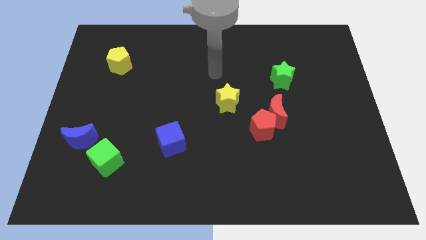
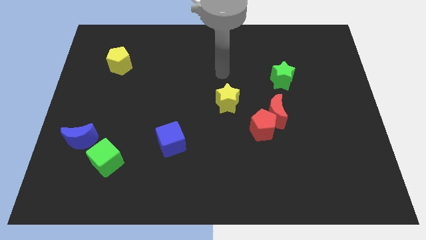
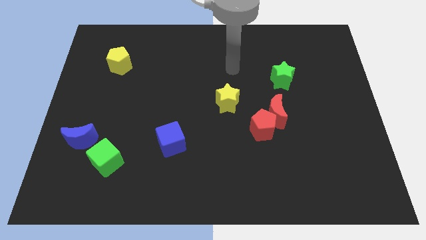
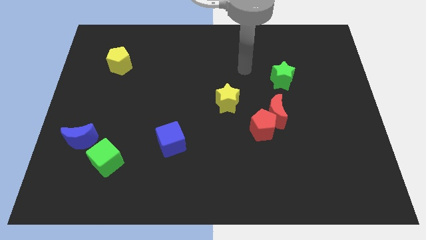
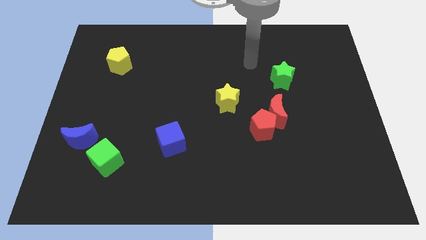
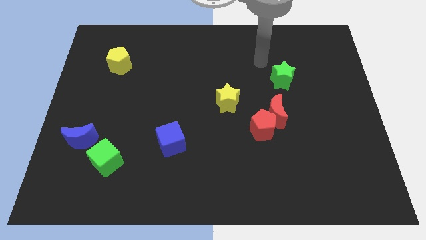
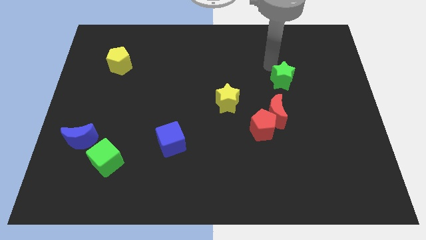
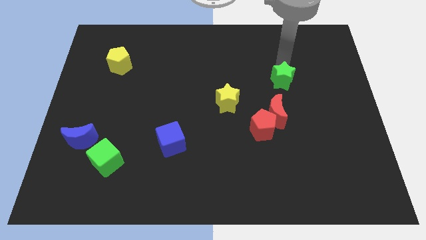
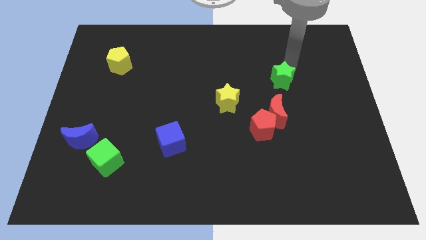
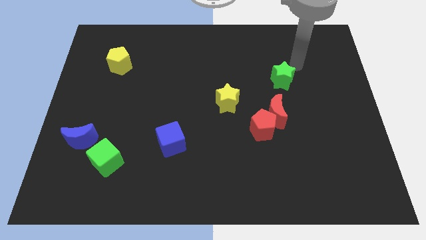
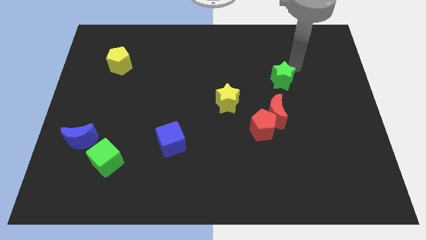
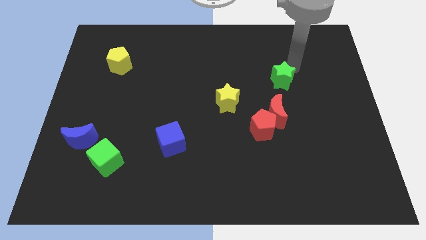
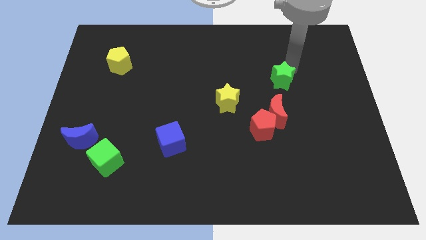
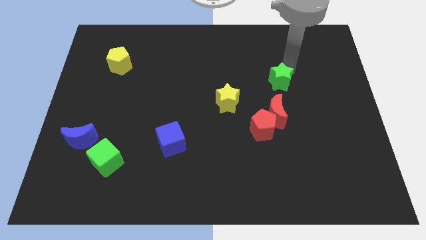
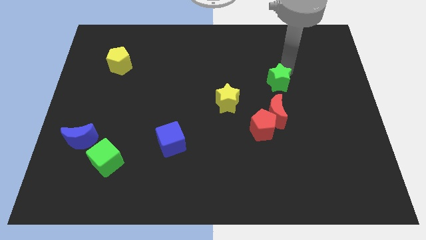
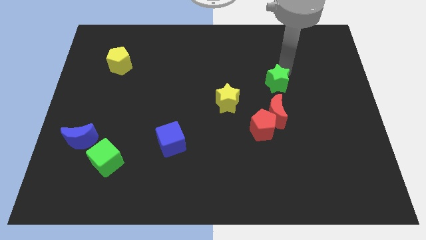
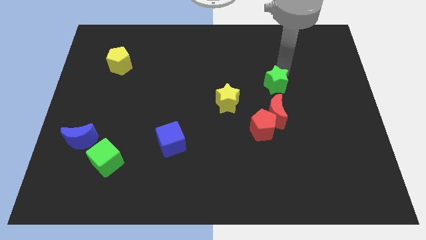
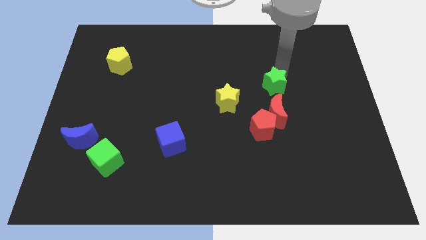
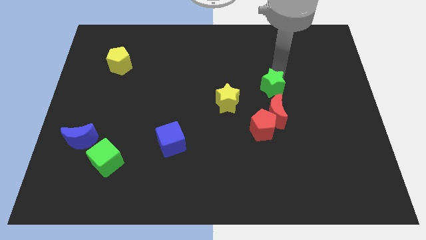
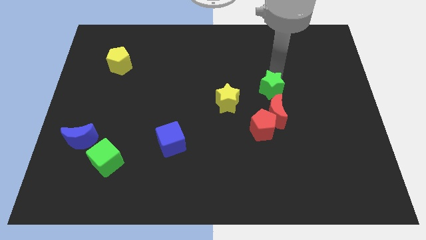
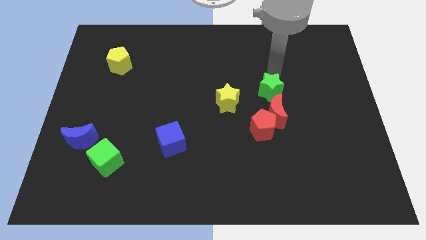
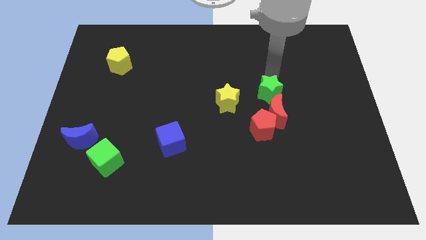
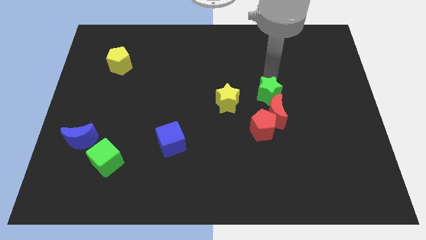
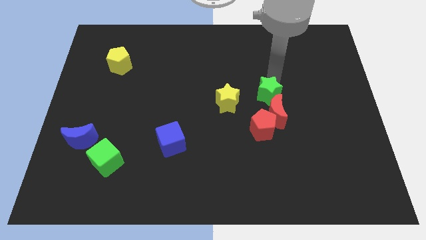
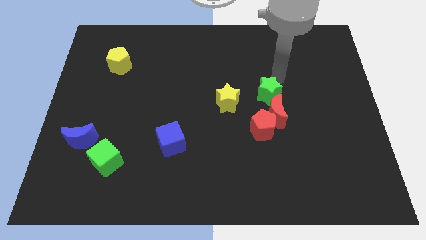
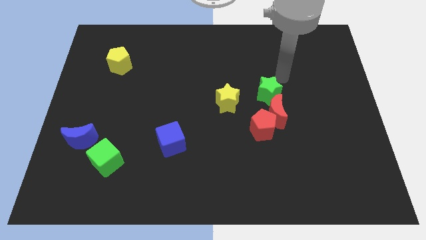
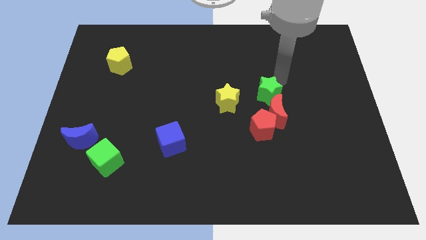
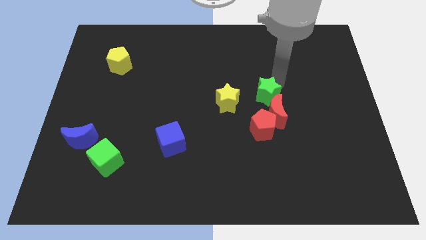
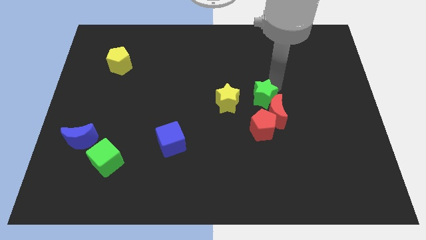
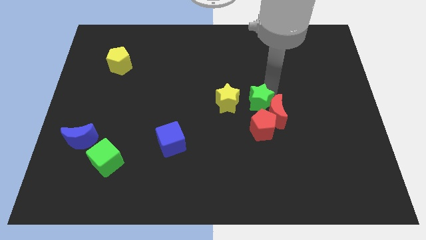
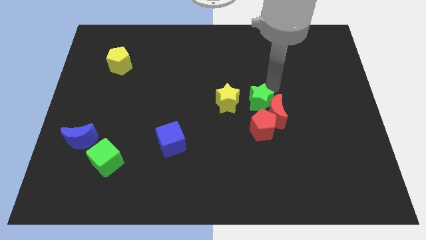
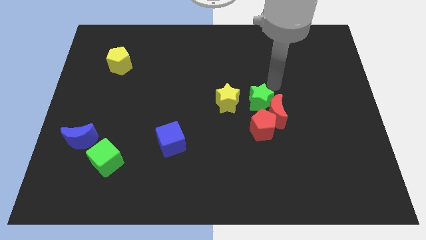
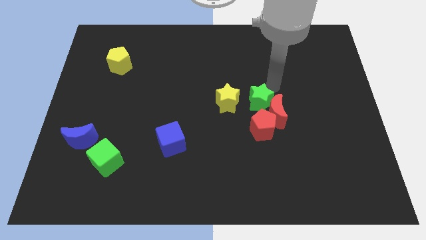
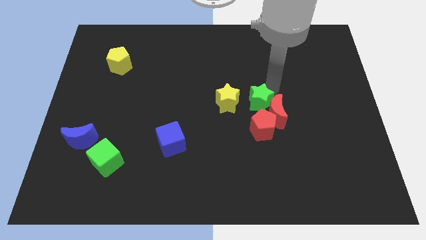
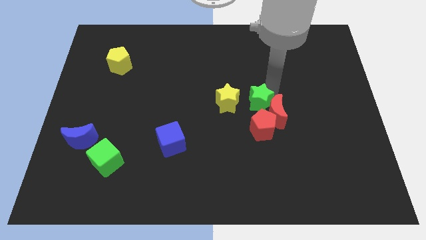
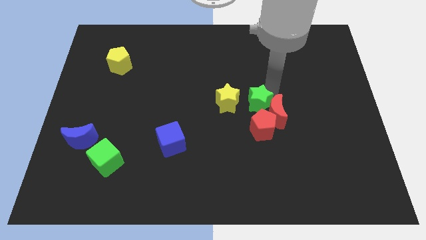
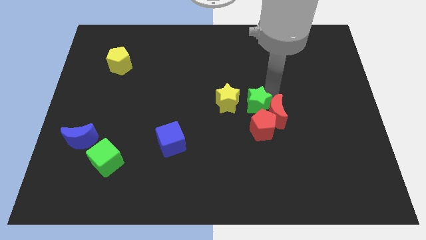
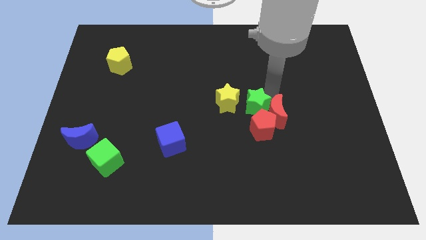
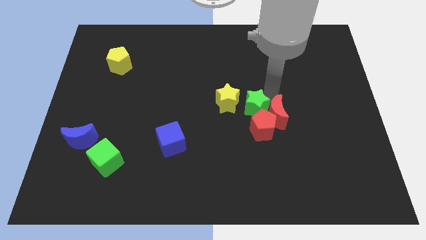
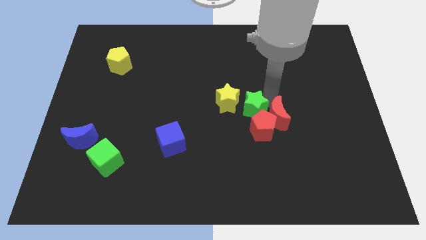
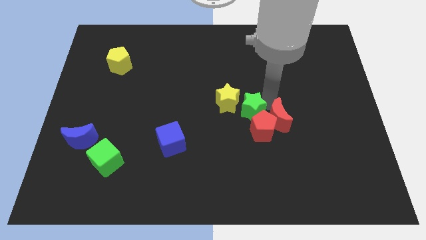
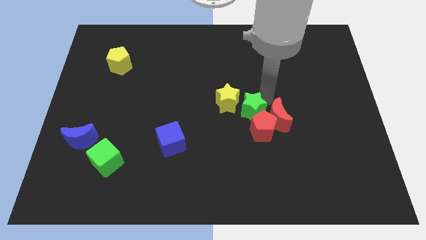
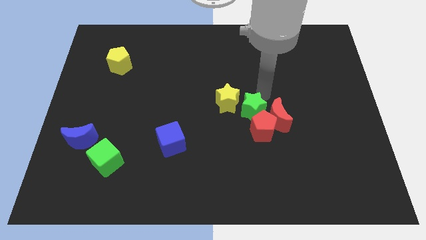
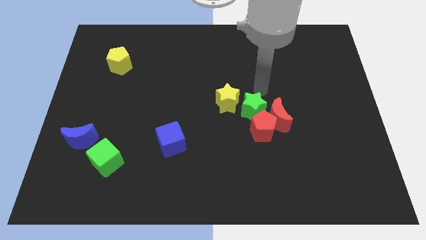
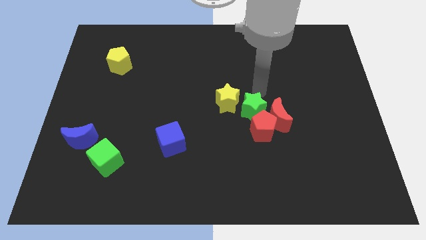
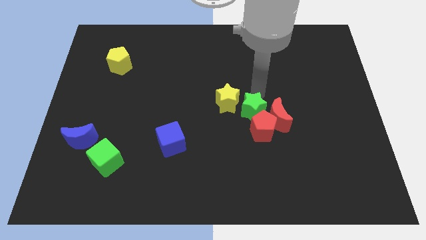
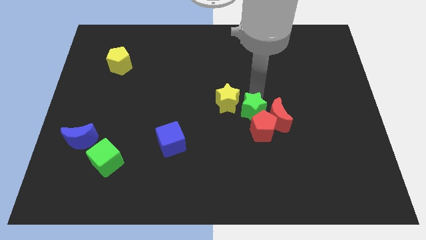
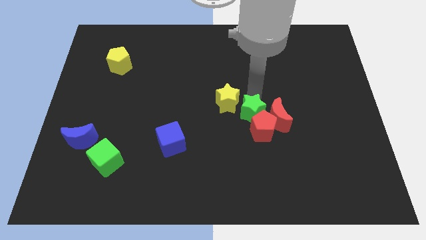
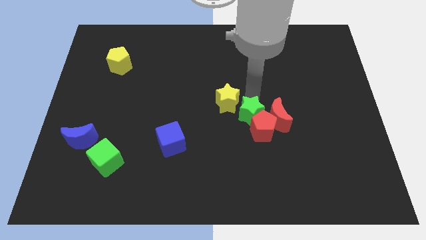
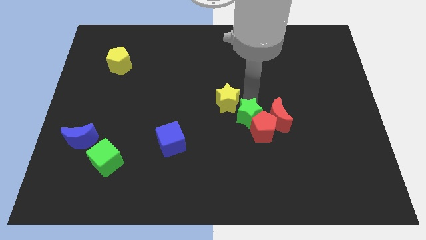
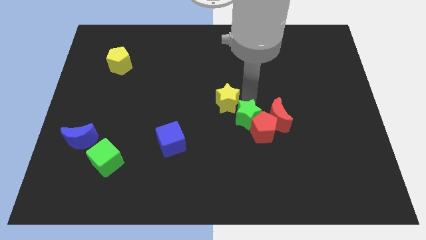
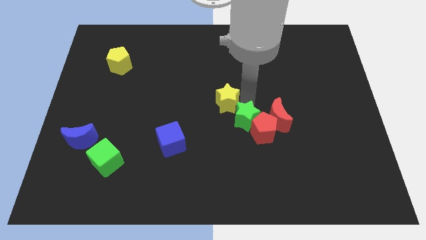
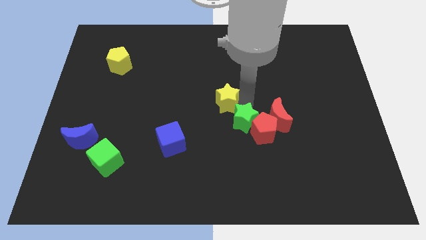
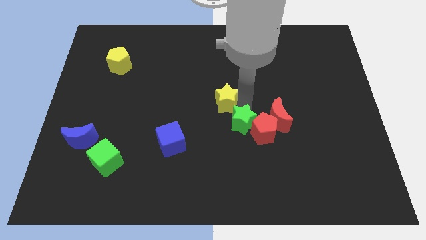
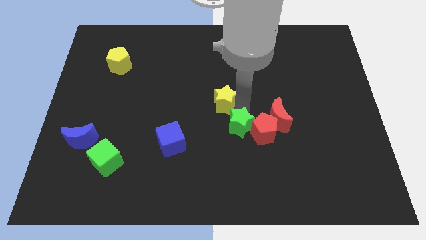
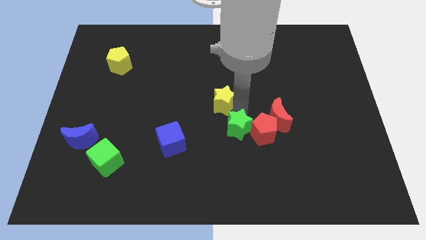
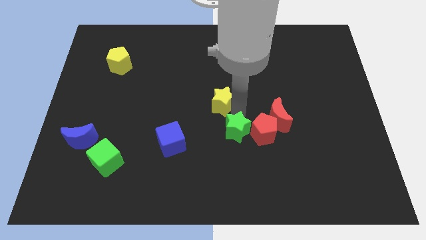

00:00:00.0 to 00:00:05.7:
push the green star diagonally down and to the left of the red pentagon

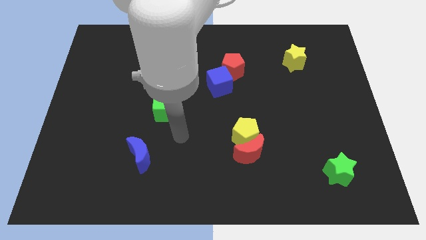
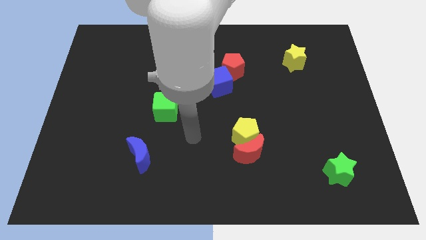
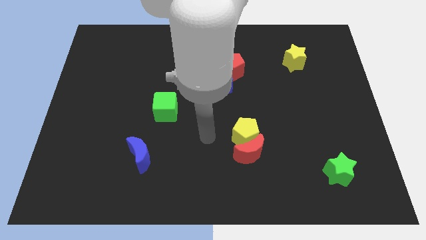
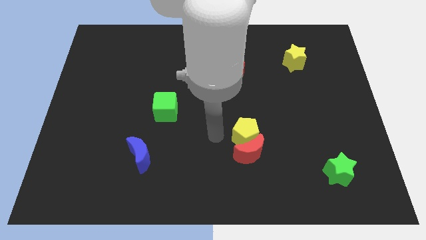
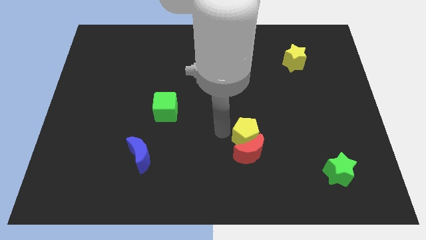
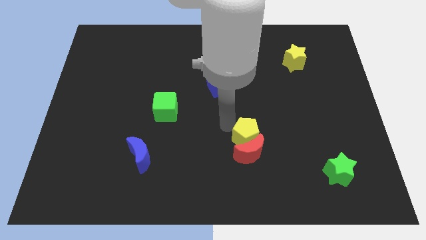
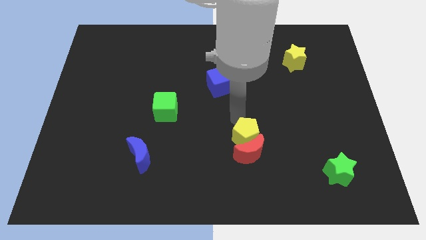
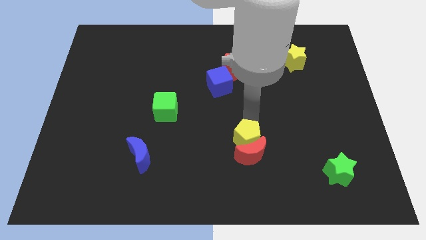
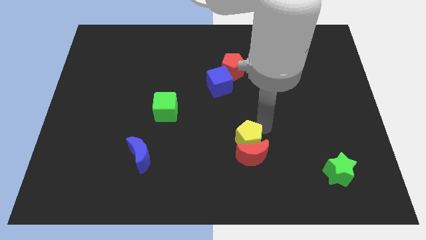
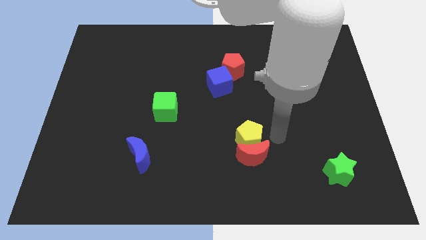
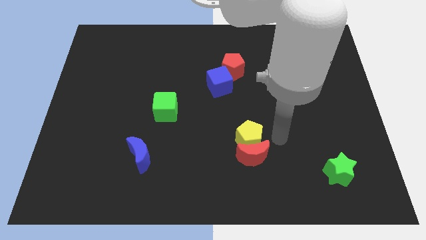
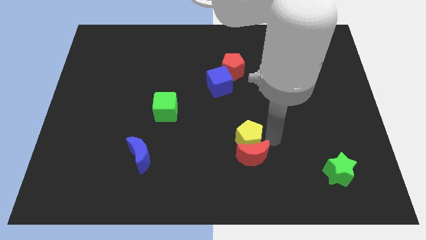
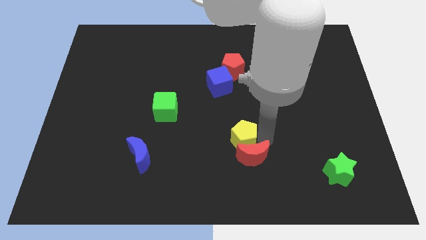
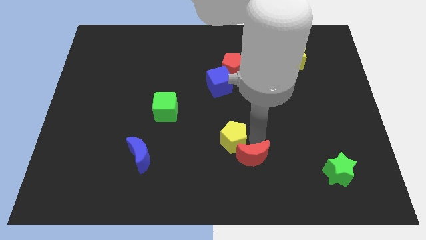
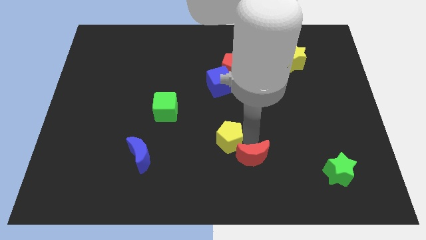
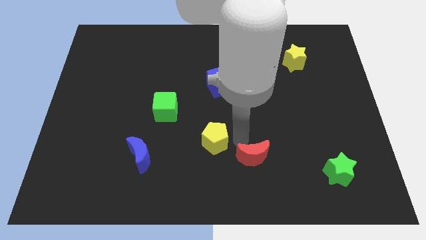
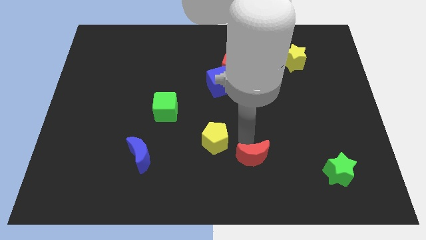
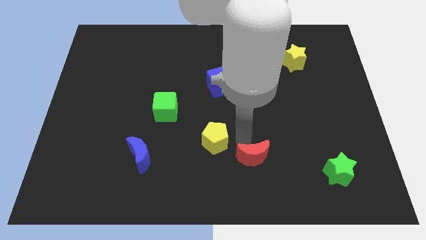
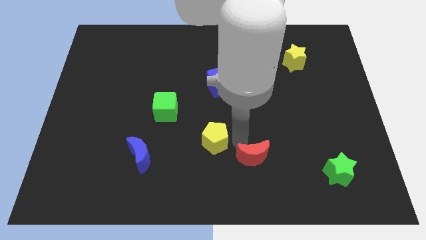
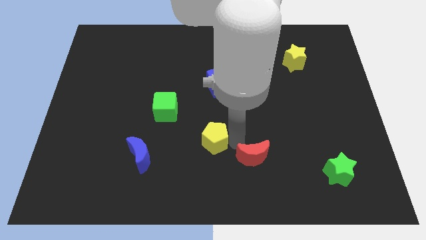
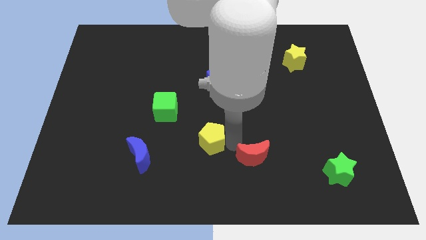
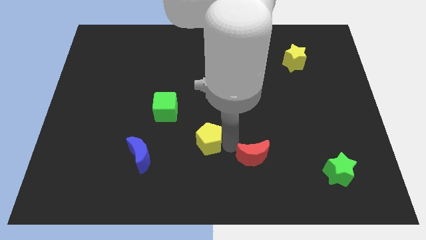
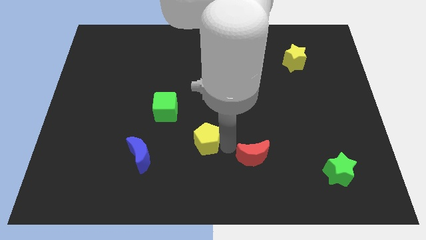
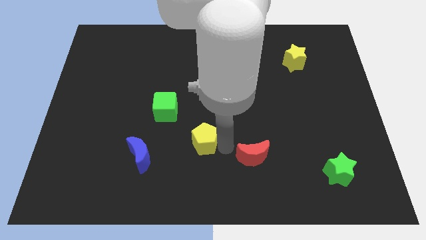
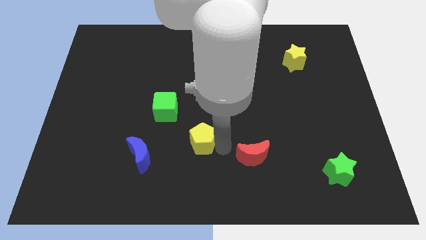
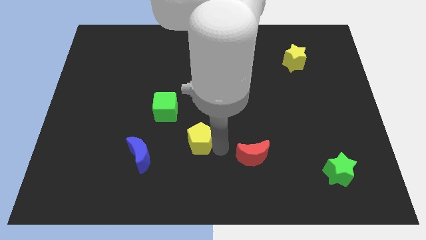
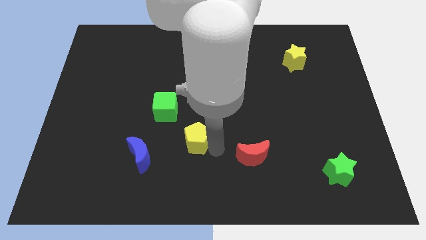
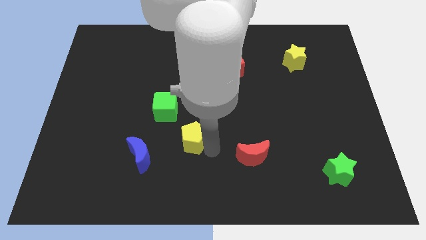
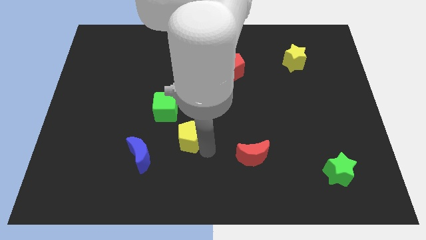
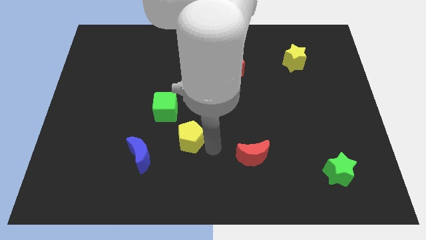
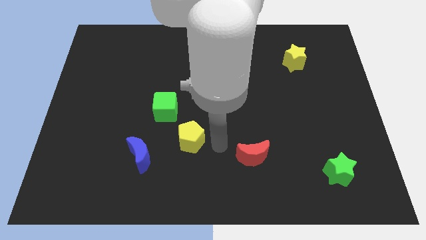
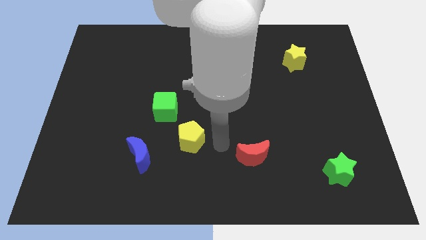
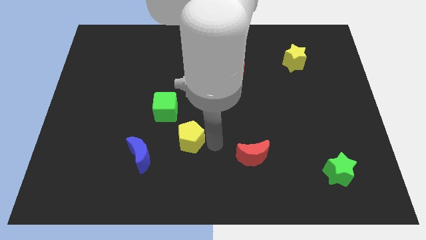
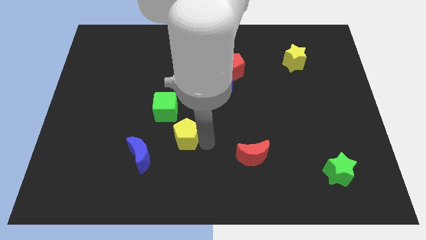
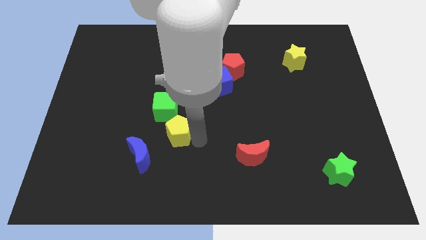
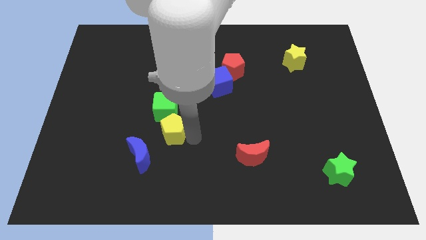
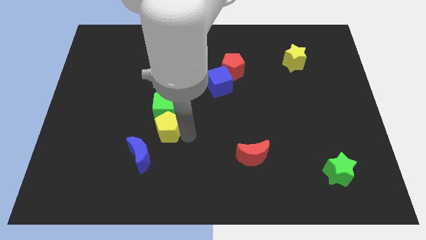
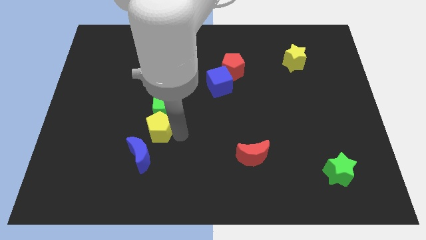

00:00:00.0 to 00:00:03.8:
put the yellow pentagon to the top of the blue moon
